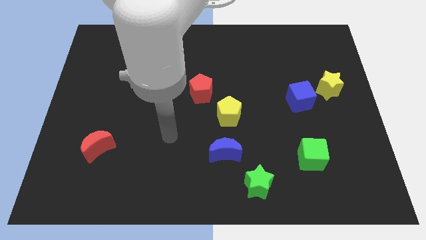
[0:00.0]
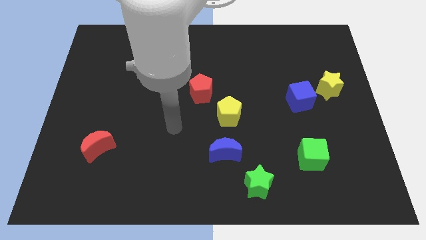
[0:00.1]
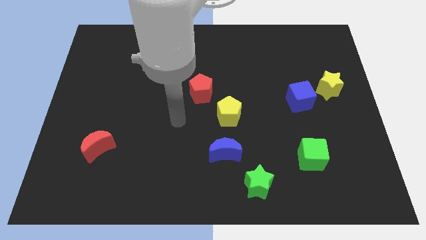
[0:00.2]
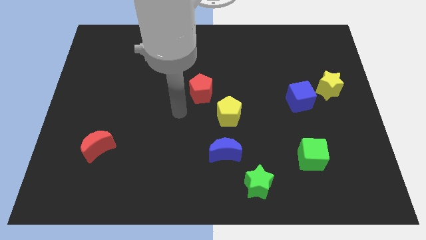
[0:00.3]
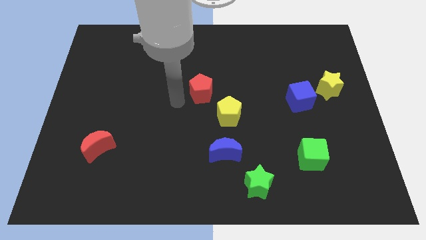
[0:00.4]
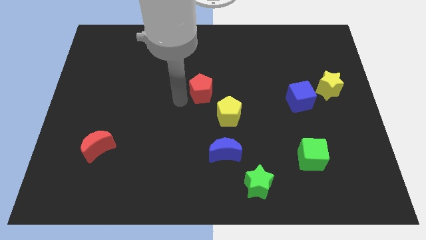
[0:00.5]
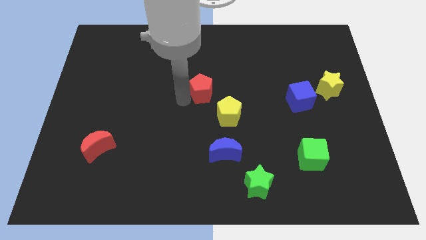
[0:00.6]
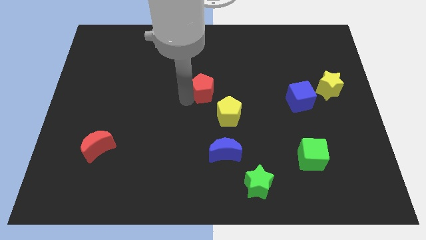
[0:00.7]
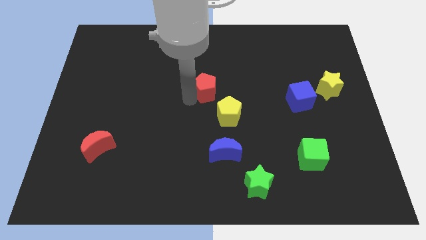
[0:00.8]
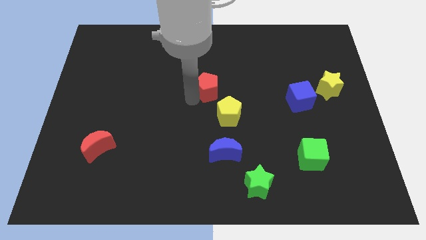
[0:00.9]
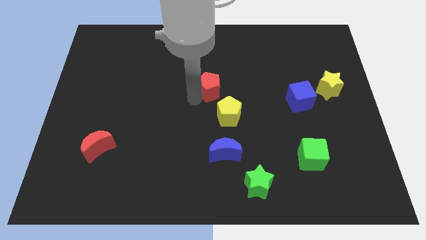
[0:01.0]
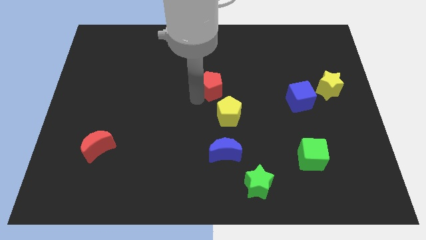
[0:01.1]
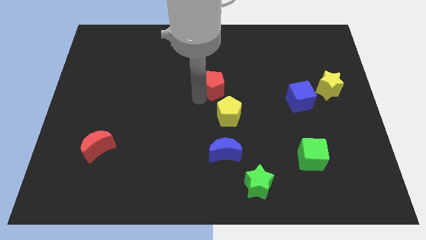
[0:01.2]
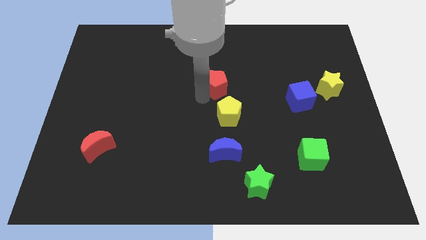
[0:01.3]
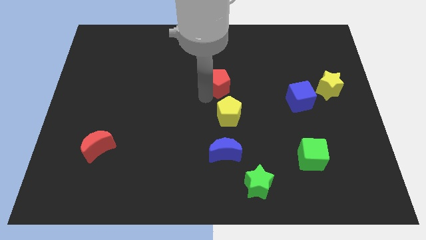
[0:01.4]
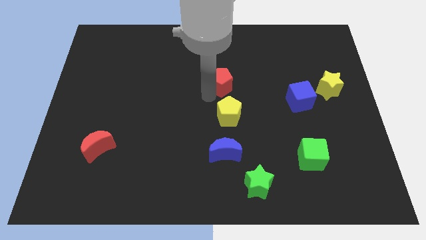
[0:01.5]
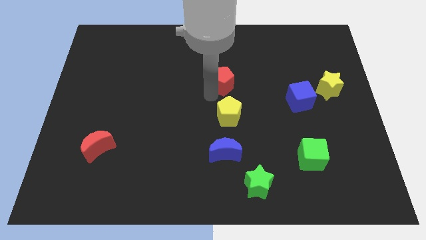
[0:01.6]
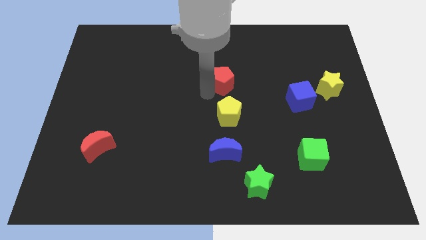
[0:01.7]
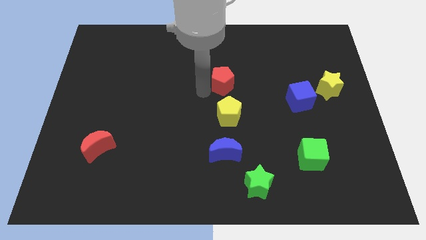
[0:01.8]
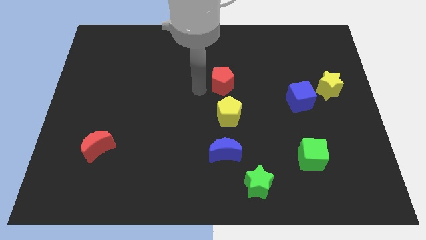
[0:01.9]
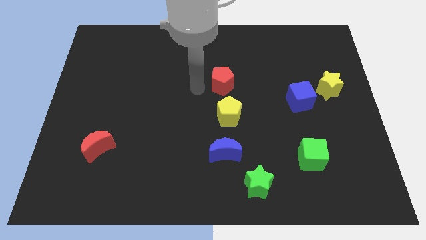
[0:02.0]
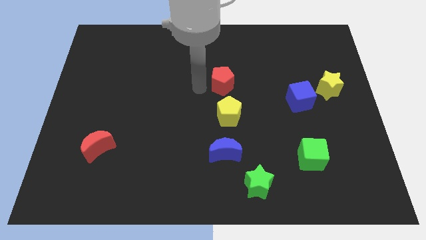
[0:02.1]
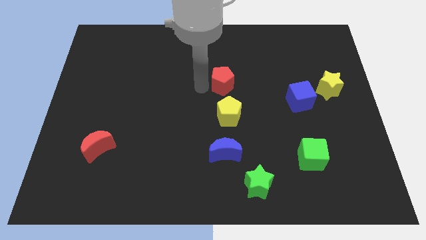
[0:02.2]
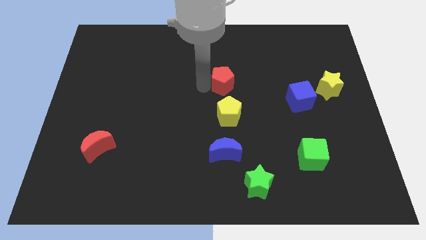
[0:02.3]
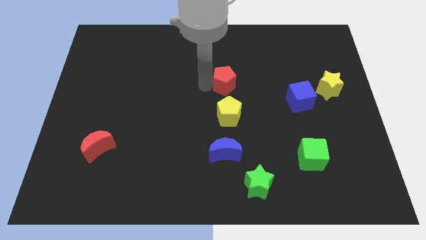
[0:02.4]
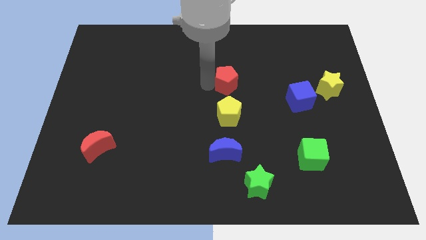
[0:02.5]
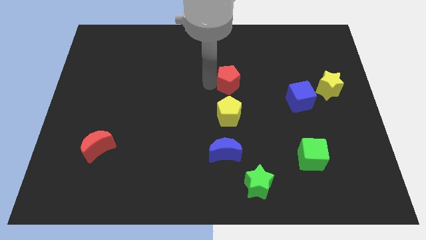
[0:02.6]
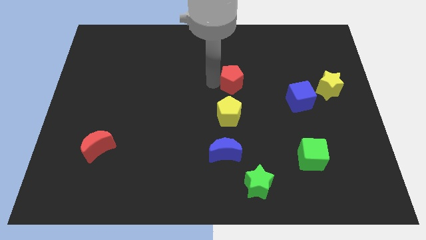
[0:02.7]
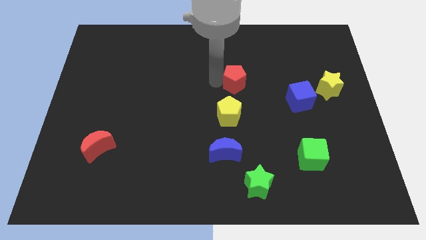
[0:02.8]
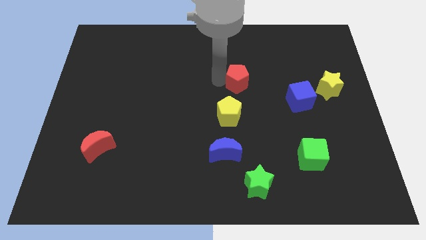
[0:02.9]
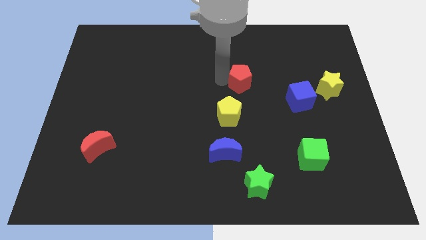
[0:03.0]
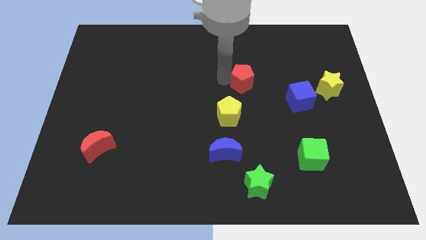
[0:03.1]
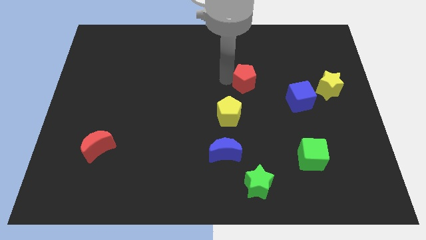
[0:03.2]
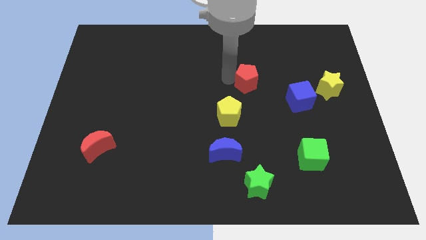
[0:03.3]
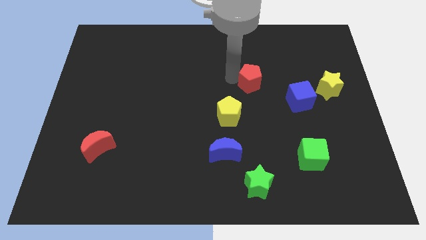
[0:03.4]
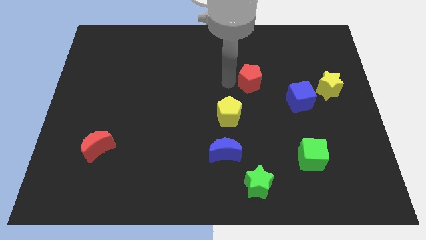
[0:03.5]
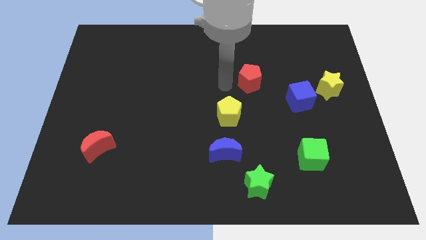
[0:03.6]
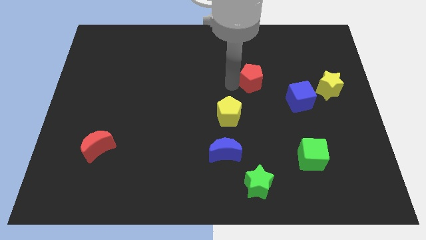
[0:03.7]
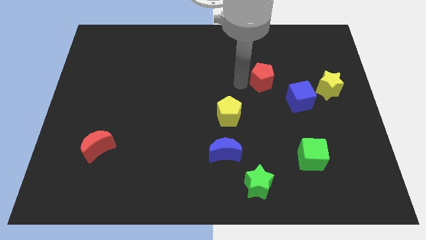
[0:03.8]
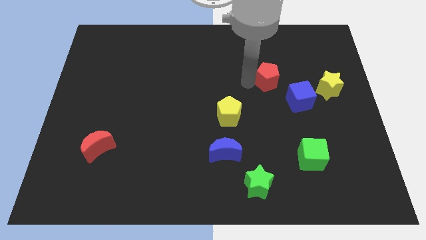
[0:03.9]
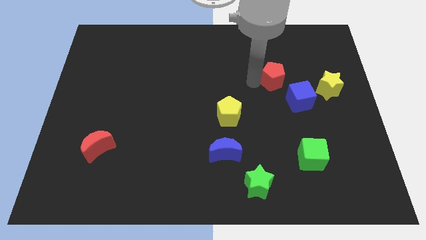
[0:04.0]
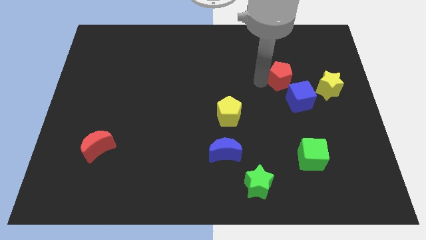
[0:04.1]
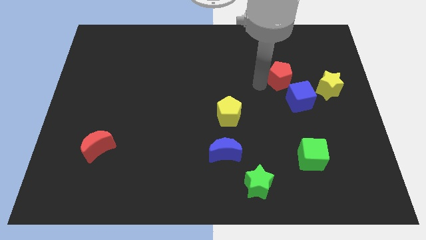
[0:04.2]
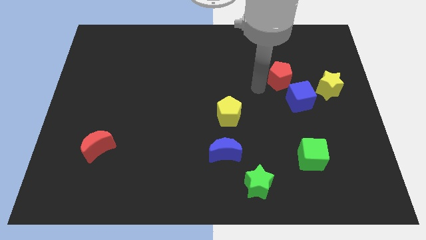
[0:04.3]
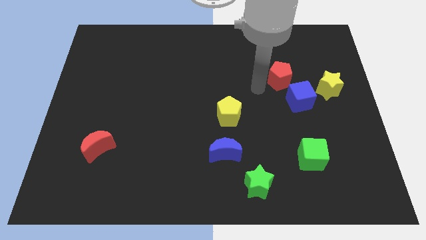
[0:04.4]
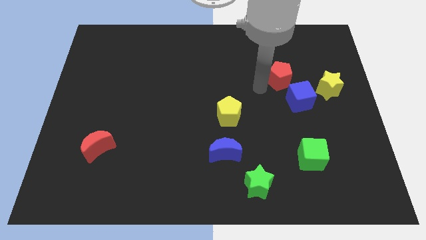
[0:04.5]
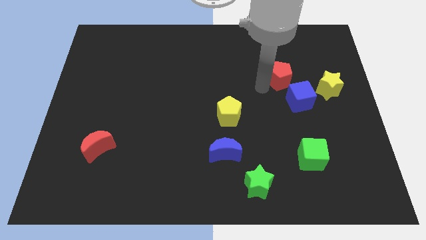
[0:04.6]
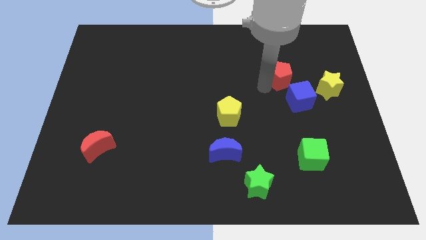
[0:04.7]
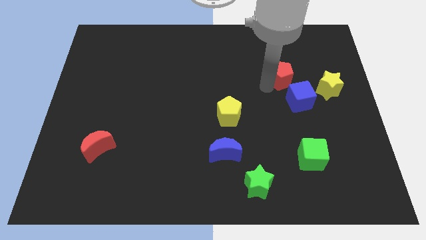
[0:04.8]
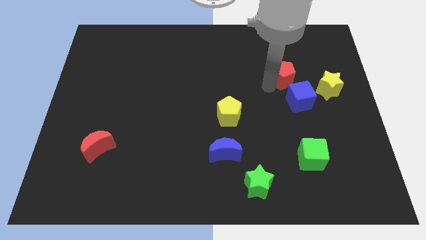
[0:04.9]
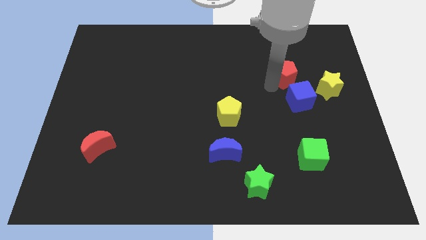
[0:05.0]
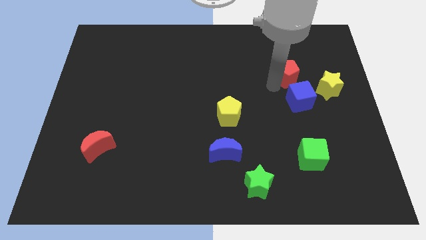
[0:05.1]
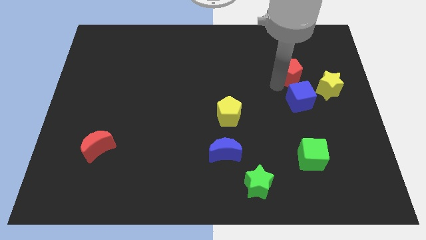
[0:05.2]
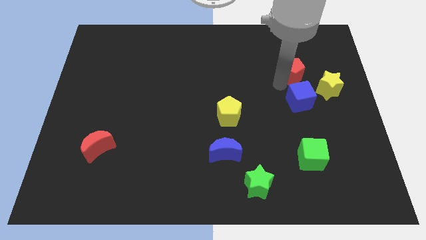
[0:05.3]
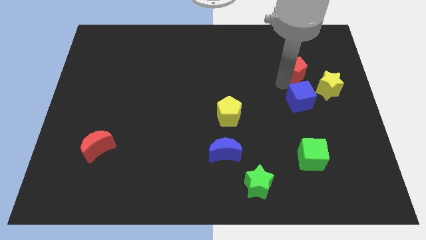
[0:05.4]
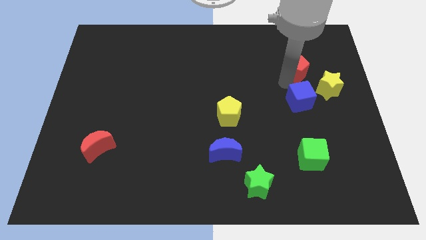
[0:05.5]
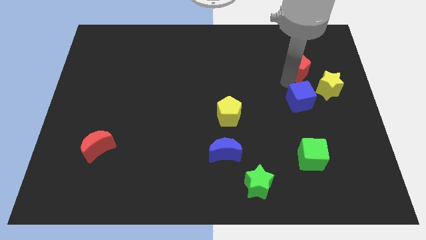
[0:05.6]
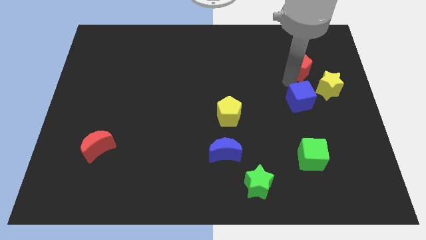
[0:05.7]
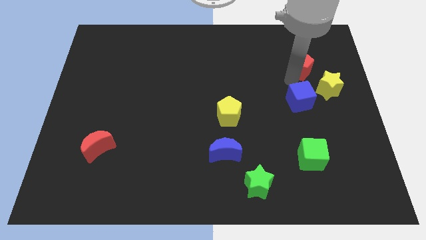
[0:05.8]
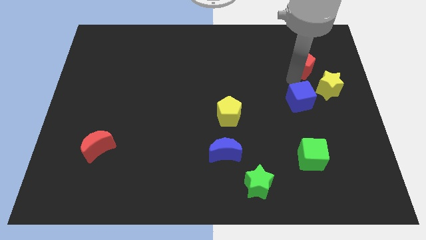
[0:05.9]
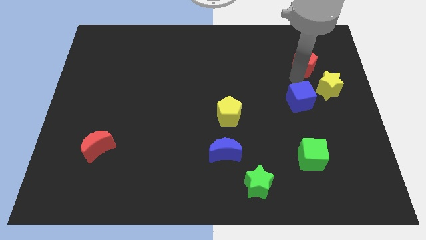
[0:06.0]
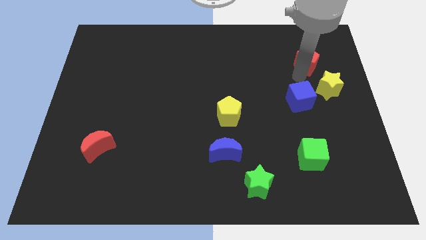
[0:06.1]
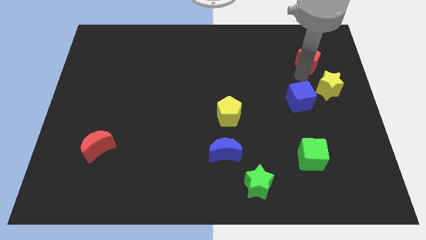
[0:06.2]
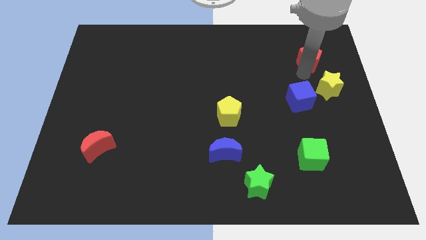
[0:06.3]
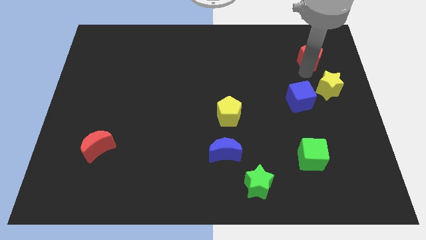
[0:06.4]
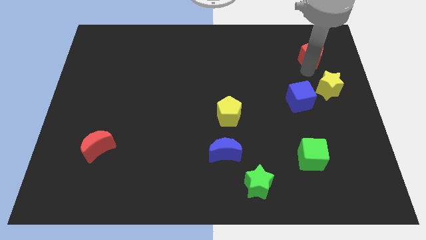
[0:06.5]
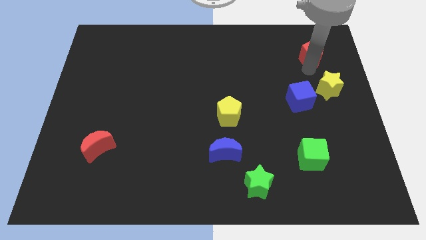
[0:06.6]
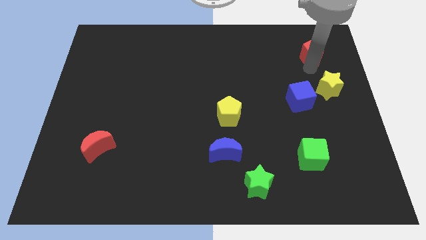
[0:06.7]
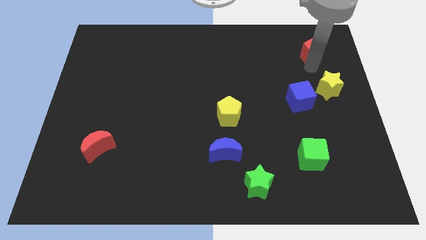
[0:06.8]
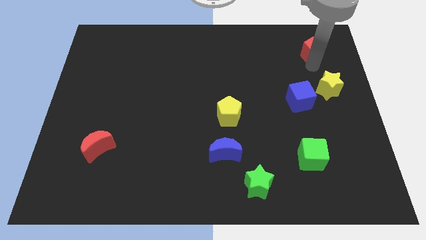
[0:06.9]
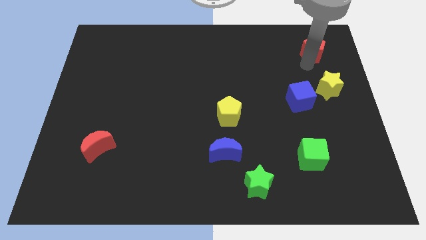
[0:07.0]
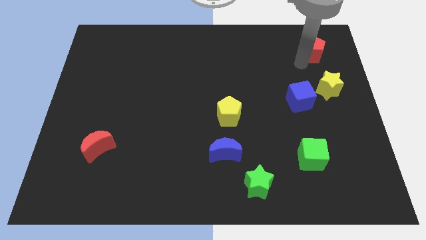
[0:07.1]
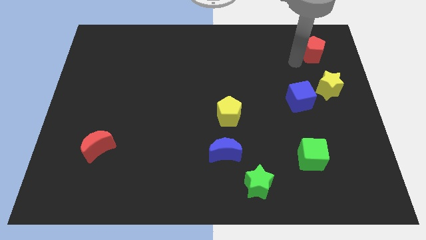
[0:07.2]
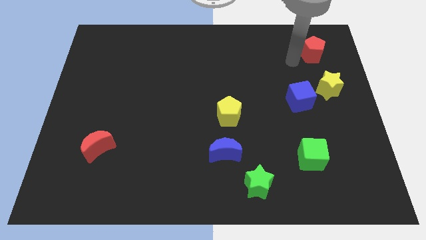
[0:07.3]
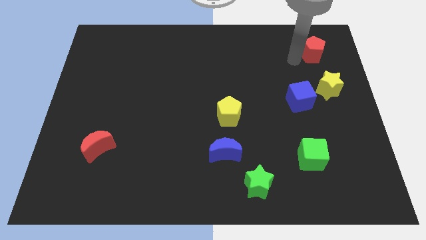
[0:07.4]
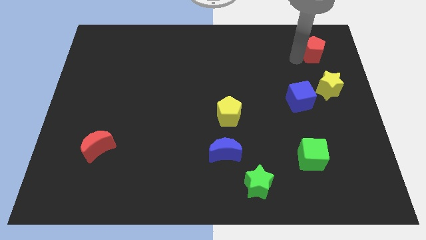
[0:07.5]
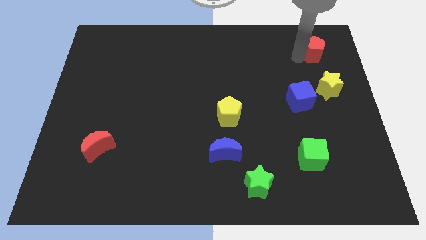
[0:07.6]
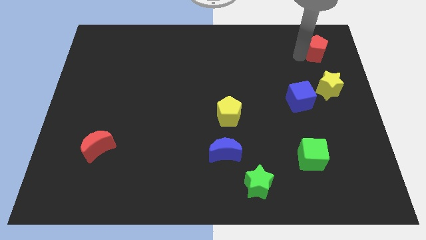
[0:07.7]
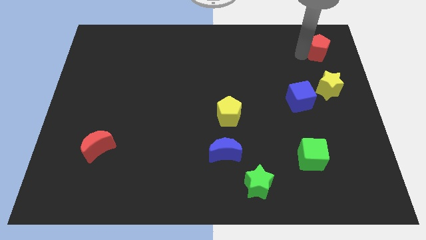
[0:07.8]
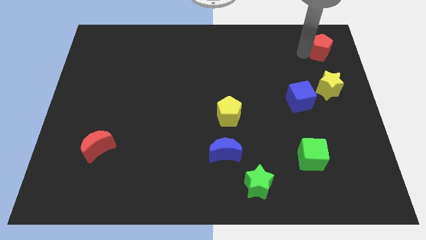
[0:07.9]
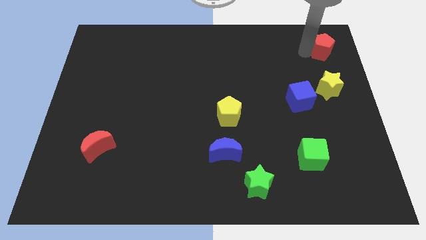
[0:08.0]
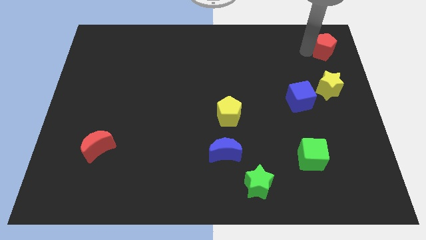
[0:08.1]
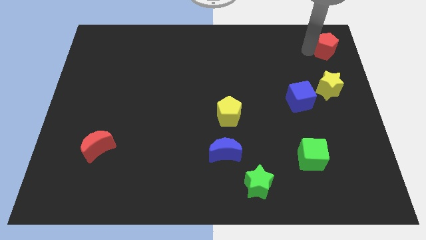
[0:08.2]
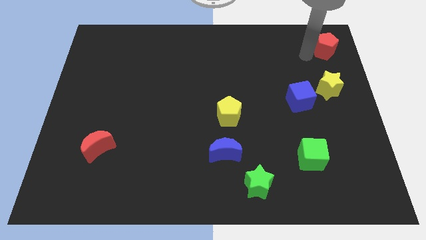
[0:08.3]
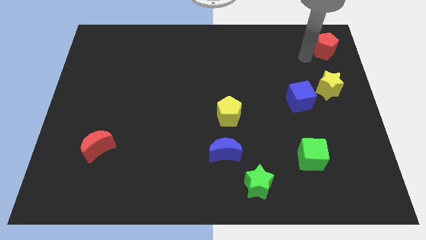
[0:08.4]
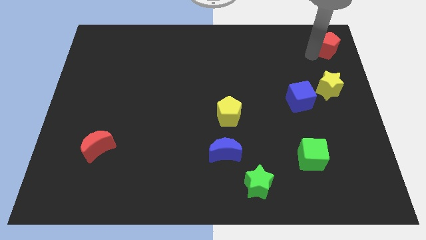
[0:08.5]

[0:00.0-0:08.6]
push the red pentagon to the upper right corner
